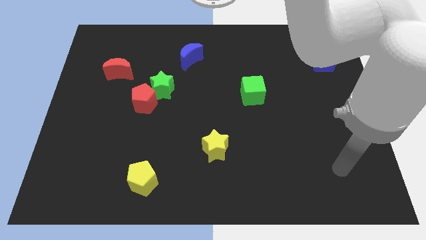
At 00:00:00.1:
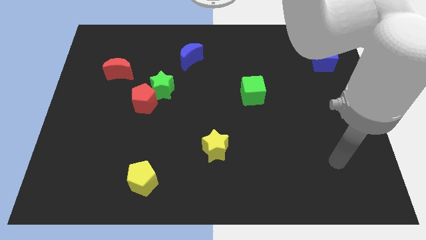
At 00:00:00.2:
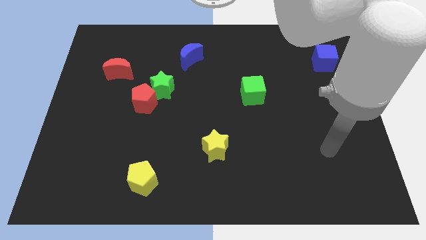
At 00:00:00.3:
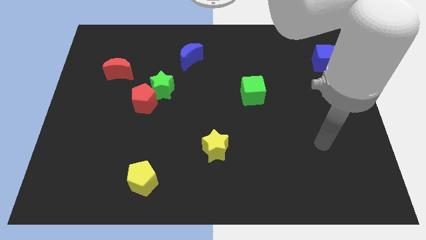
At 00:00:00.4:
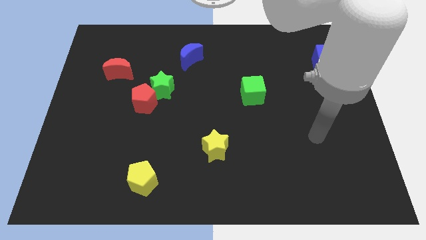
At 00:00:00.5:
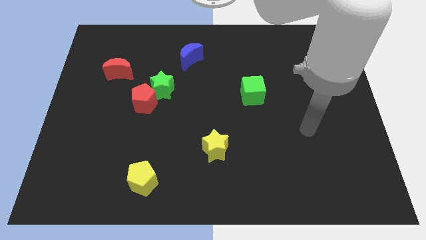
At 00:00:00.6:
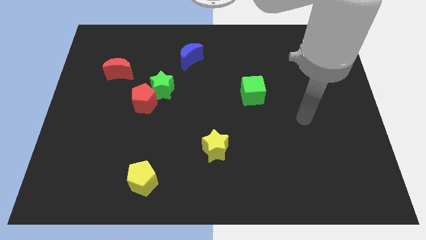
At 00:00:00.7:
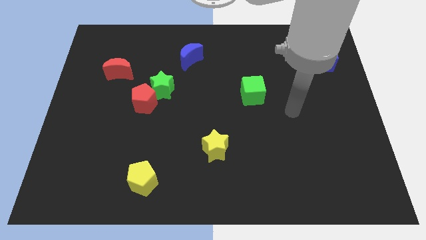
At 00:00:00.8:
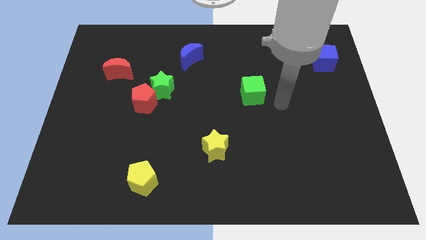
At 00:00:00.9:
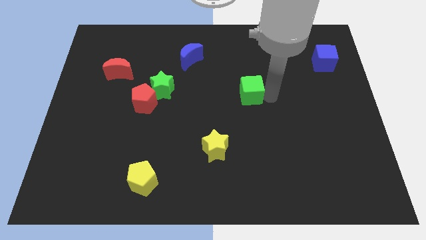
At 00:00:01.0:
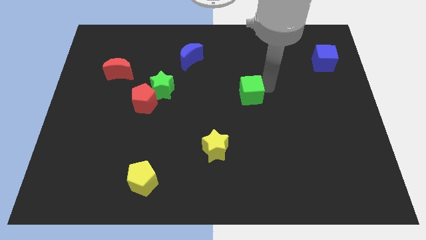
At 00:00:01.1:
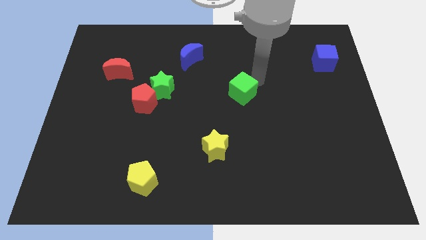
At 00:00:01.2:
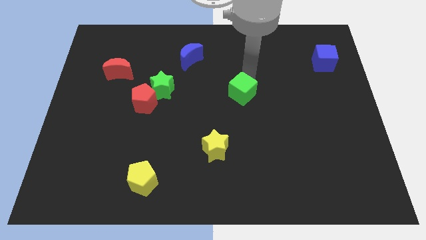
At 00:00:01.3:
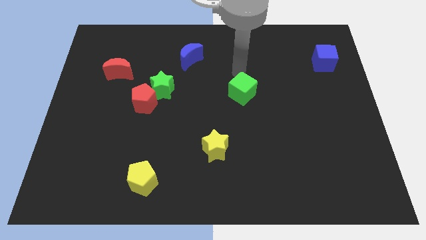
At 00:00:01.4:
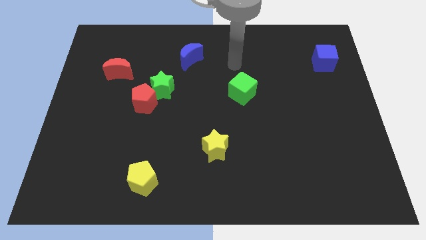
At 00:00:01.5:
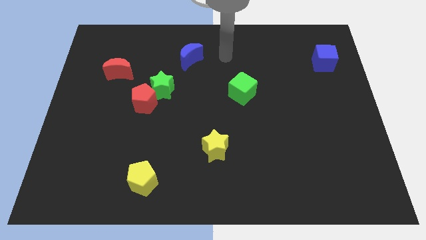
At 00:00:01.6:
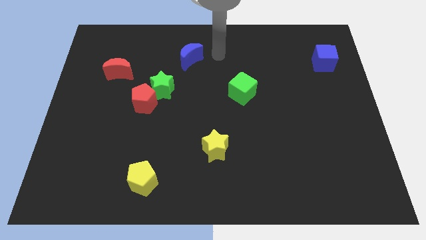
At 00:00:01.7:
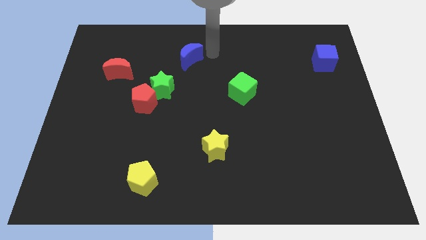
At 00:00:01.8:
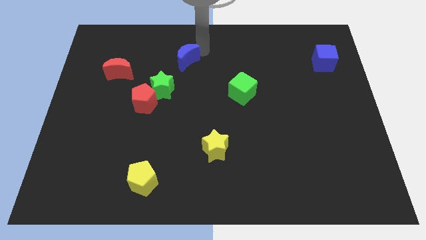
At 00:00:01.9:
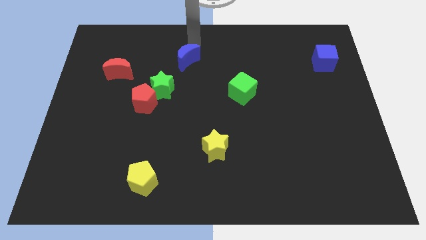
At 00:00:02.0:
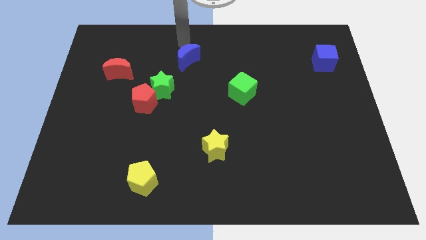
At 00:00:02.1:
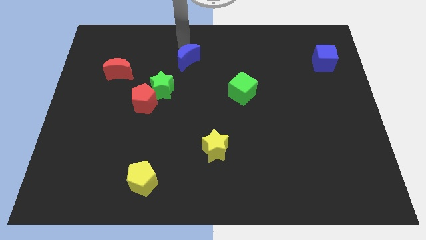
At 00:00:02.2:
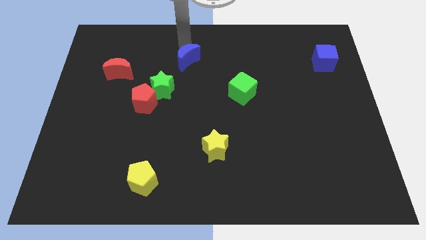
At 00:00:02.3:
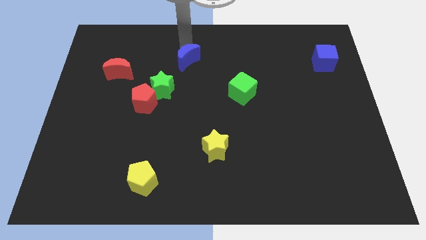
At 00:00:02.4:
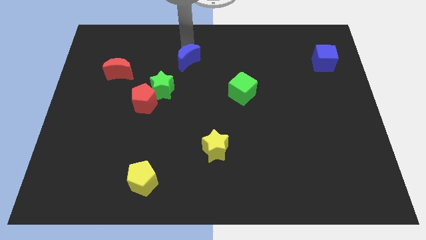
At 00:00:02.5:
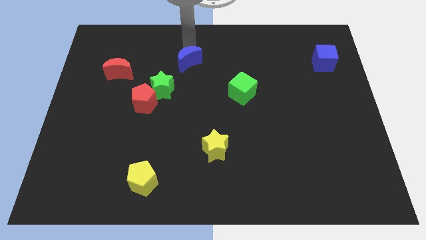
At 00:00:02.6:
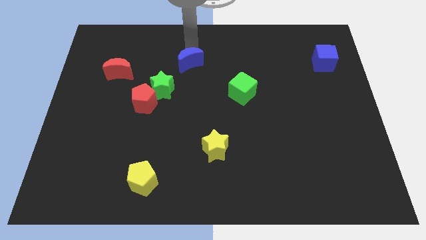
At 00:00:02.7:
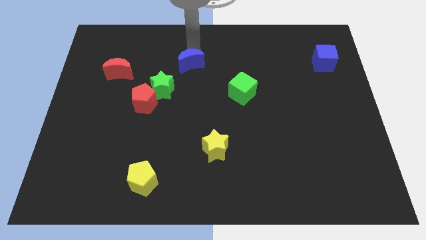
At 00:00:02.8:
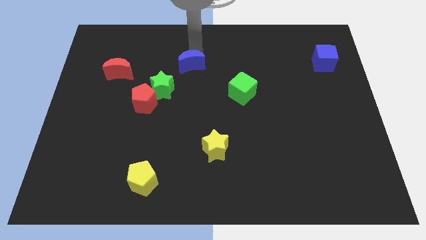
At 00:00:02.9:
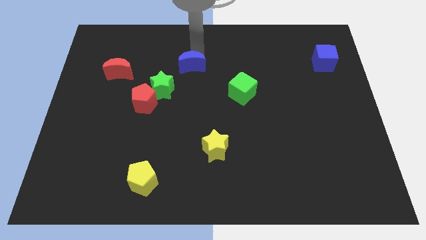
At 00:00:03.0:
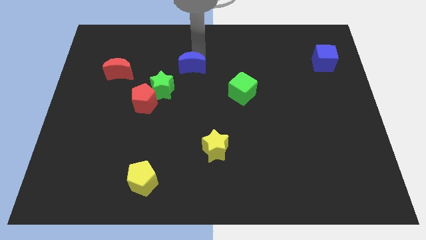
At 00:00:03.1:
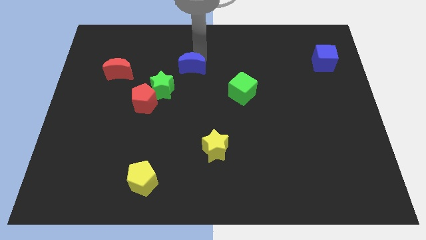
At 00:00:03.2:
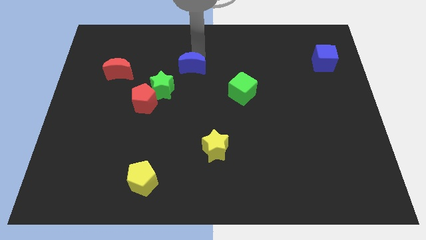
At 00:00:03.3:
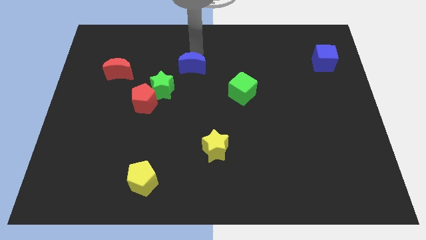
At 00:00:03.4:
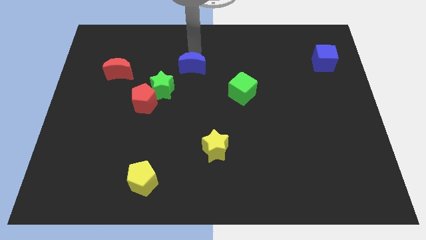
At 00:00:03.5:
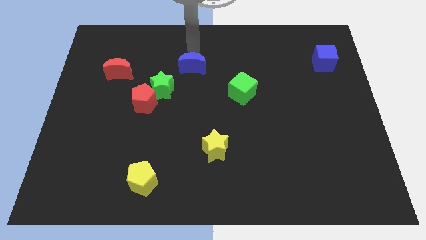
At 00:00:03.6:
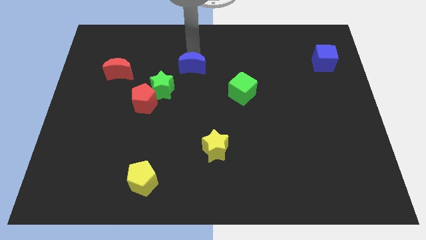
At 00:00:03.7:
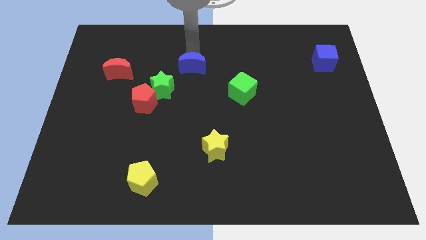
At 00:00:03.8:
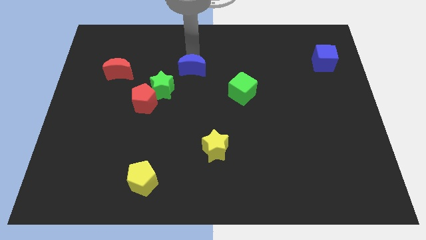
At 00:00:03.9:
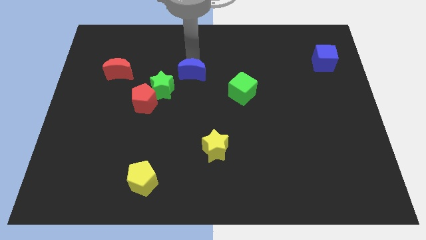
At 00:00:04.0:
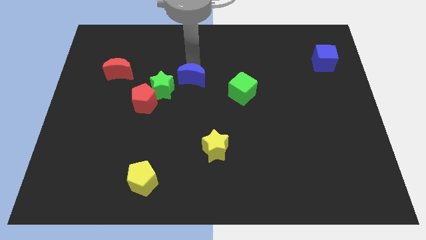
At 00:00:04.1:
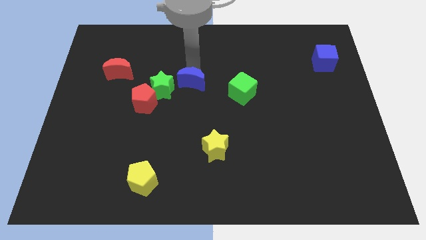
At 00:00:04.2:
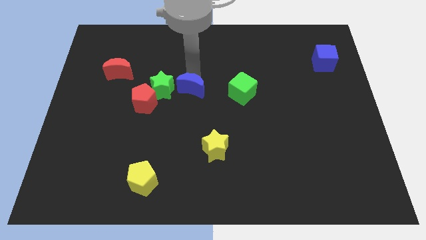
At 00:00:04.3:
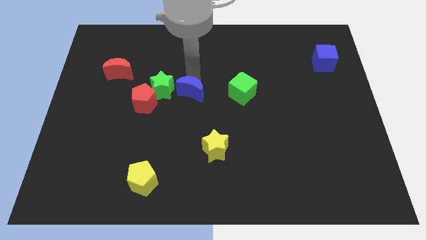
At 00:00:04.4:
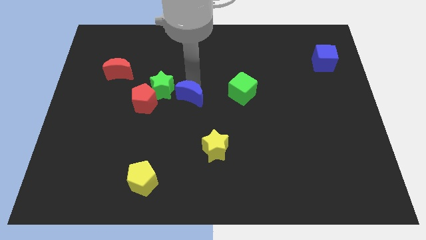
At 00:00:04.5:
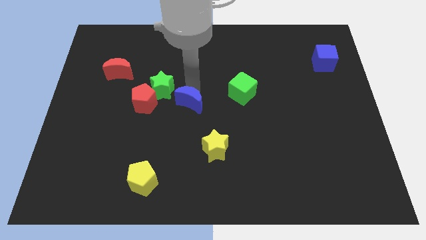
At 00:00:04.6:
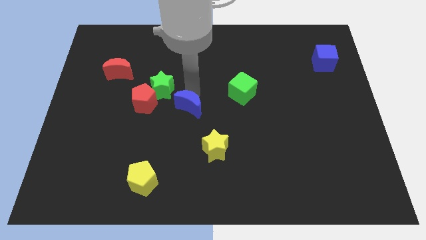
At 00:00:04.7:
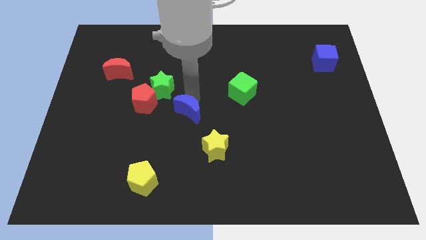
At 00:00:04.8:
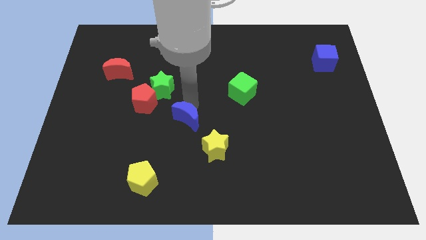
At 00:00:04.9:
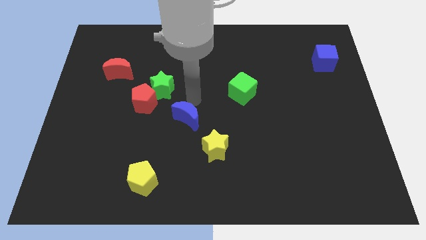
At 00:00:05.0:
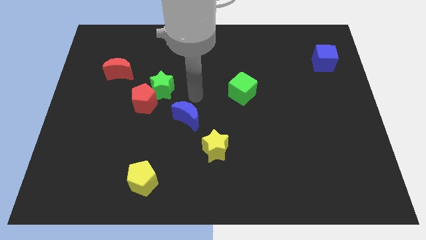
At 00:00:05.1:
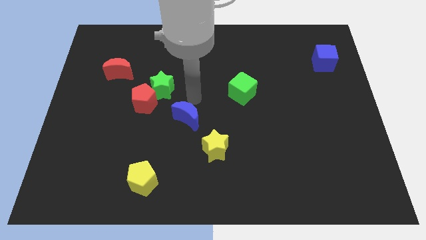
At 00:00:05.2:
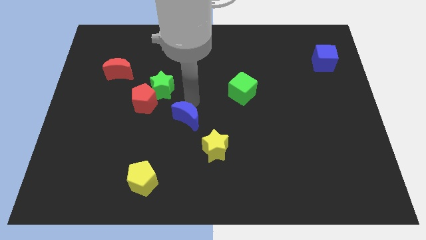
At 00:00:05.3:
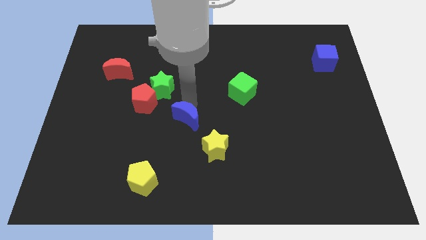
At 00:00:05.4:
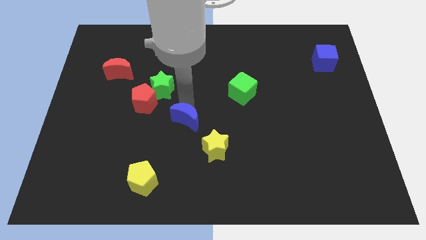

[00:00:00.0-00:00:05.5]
push the blue moon downwards

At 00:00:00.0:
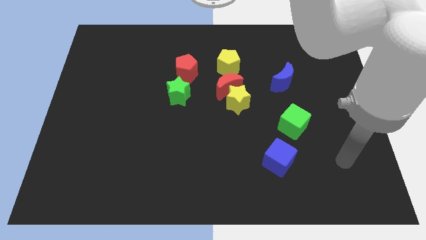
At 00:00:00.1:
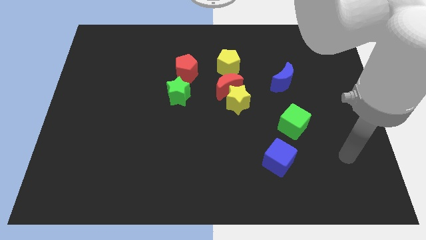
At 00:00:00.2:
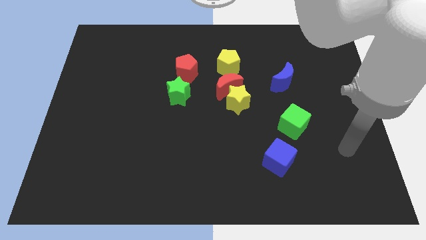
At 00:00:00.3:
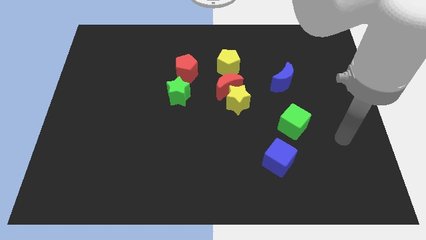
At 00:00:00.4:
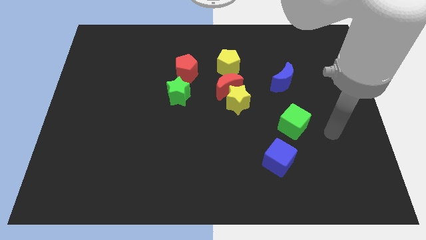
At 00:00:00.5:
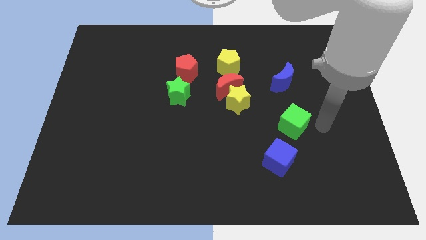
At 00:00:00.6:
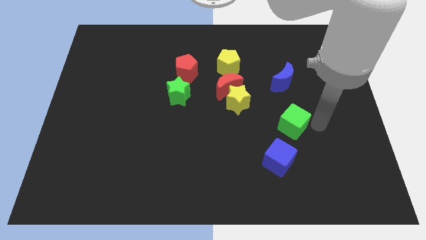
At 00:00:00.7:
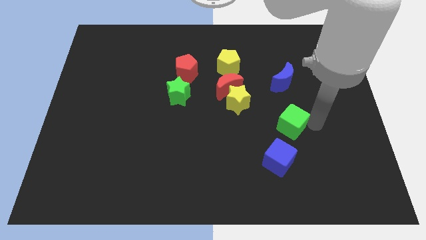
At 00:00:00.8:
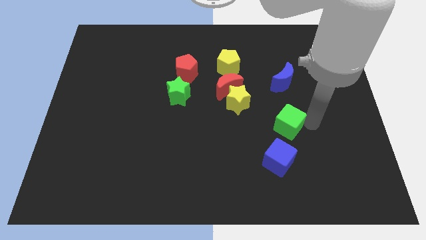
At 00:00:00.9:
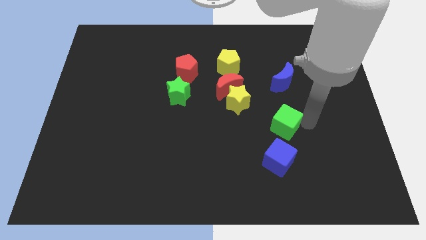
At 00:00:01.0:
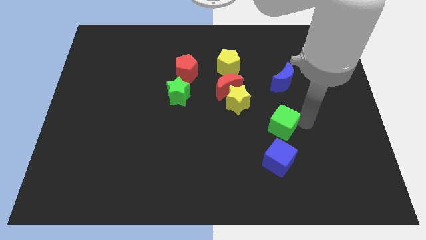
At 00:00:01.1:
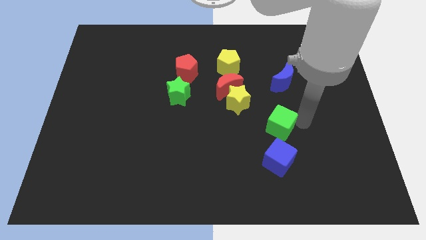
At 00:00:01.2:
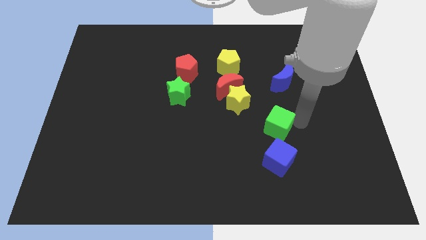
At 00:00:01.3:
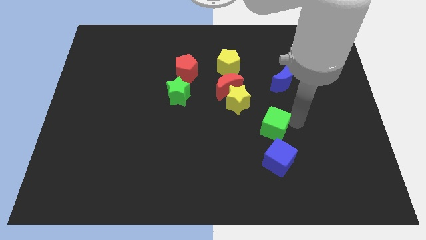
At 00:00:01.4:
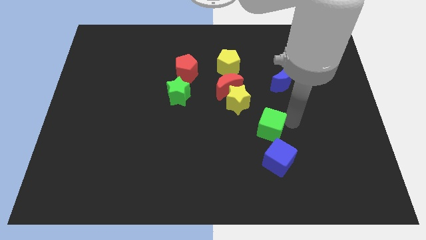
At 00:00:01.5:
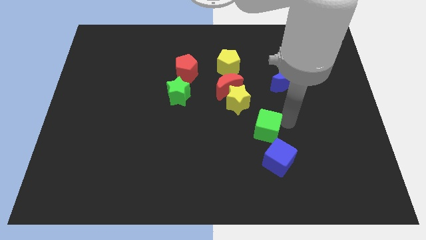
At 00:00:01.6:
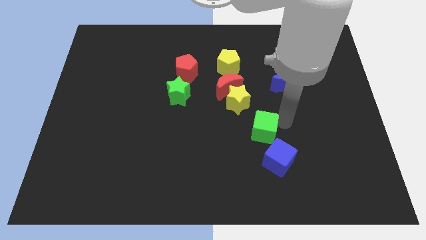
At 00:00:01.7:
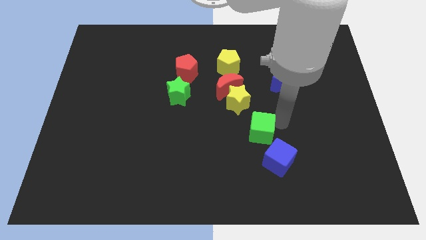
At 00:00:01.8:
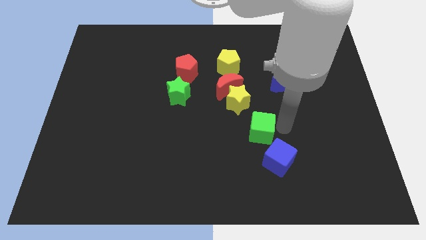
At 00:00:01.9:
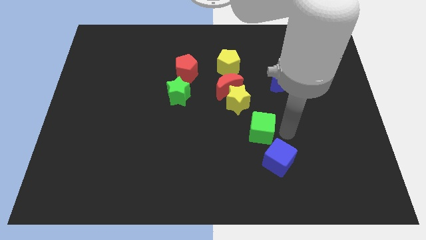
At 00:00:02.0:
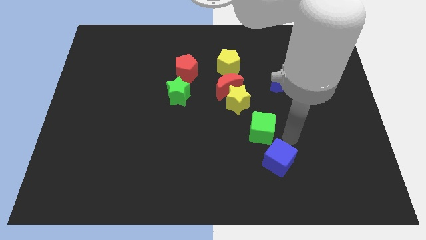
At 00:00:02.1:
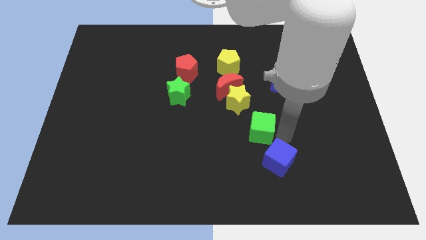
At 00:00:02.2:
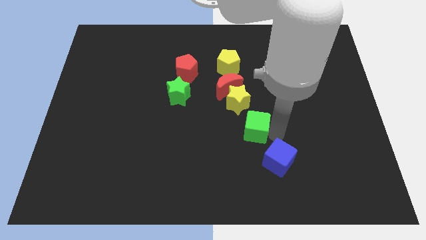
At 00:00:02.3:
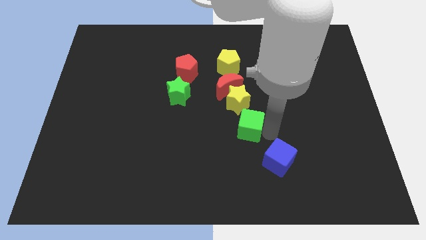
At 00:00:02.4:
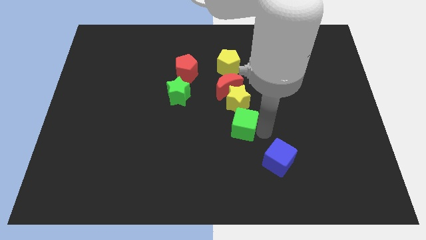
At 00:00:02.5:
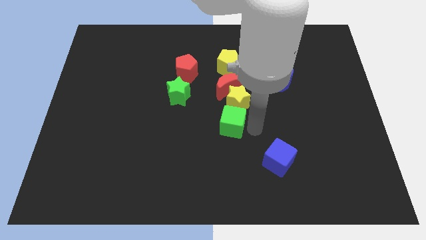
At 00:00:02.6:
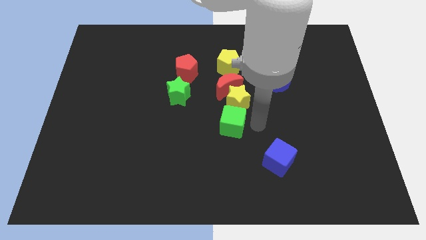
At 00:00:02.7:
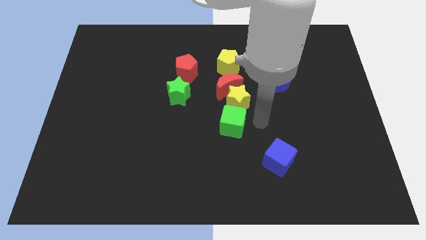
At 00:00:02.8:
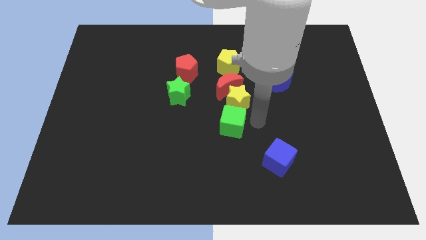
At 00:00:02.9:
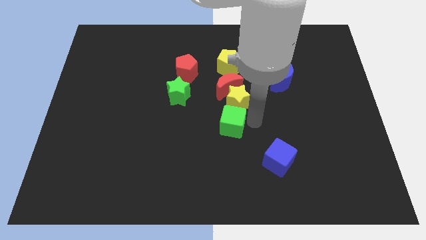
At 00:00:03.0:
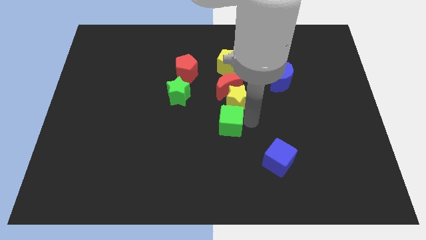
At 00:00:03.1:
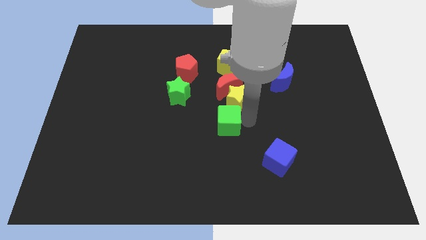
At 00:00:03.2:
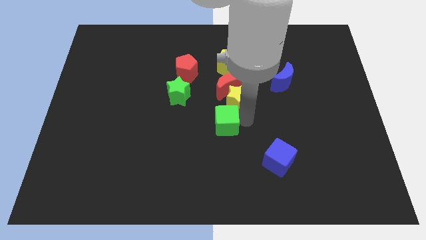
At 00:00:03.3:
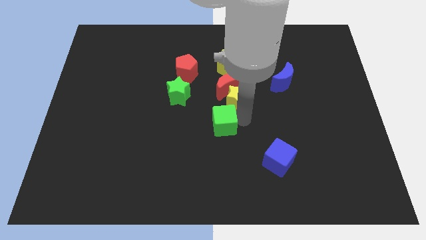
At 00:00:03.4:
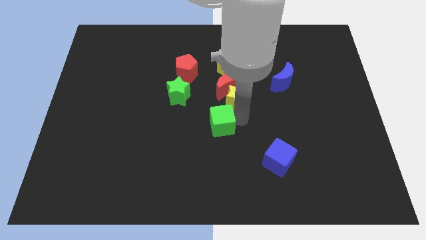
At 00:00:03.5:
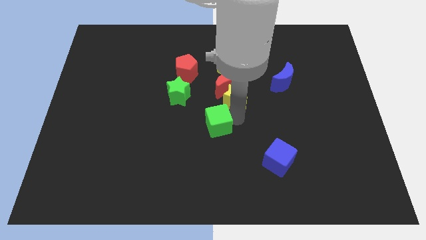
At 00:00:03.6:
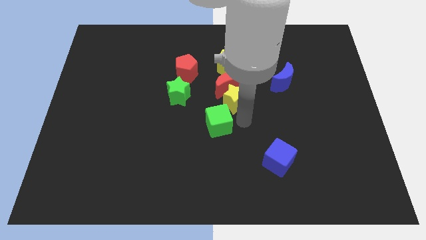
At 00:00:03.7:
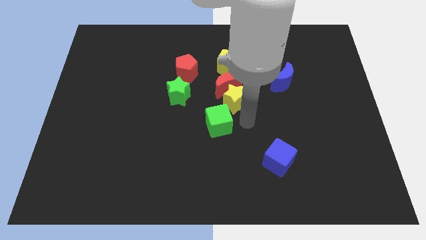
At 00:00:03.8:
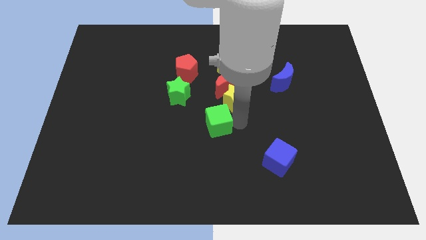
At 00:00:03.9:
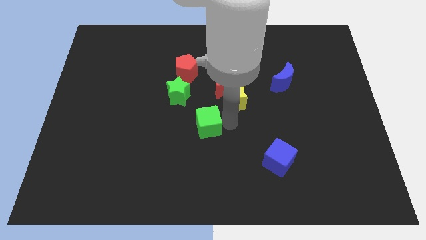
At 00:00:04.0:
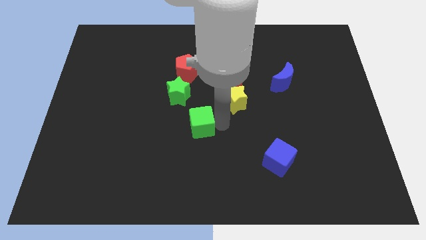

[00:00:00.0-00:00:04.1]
push the green cube left
